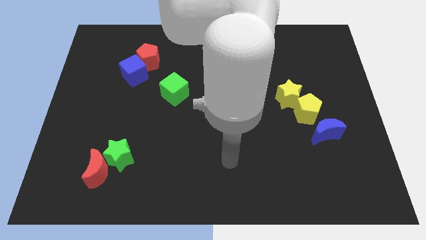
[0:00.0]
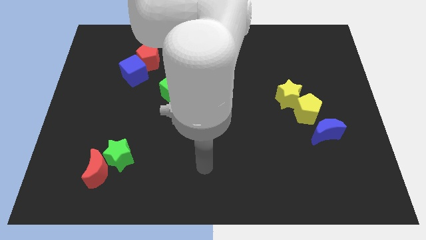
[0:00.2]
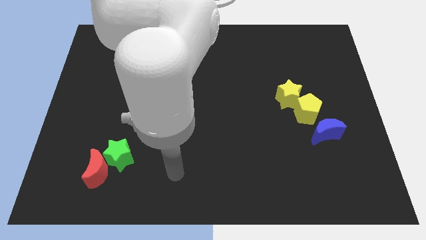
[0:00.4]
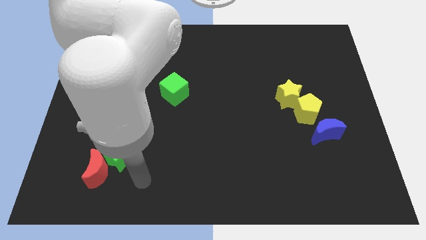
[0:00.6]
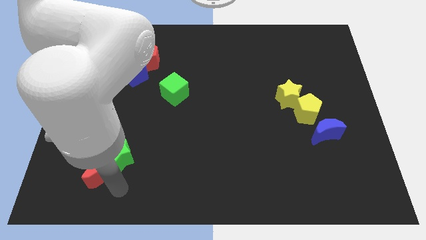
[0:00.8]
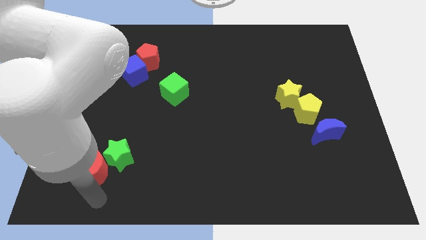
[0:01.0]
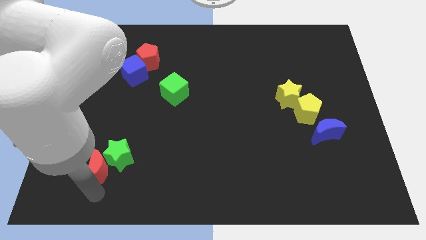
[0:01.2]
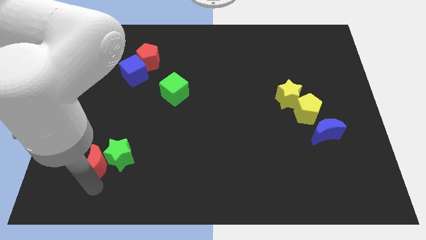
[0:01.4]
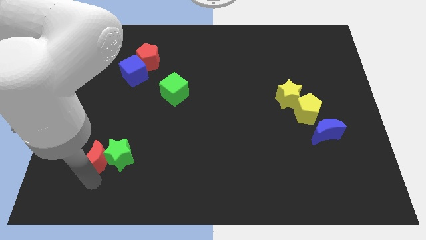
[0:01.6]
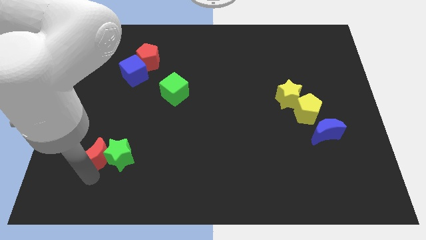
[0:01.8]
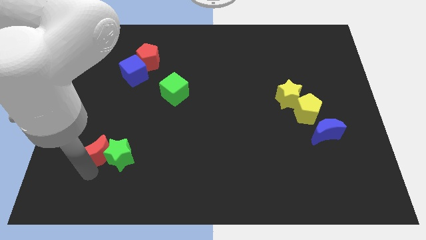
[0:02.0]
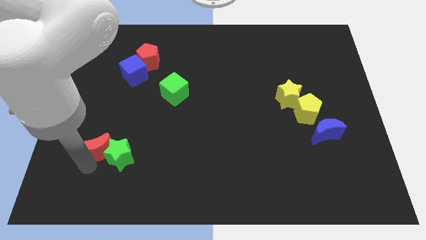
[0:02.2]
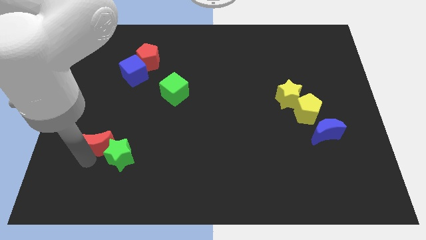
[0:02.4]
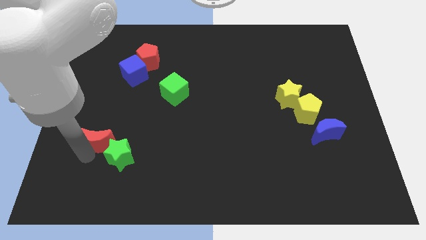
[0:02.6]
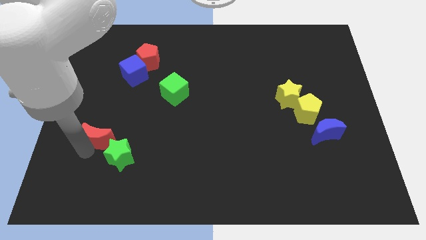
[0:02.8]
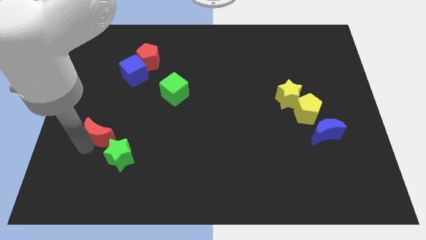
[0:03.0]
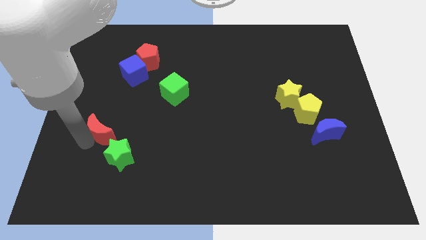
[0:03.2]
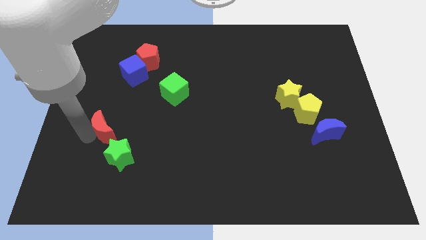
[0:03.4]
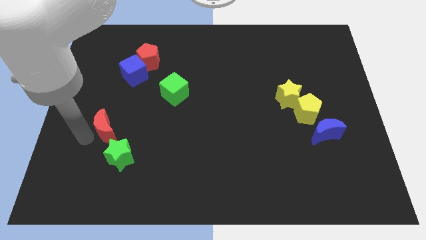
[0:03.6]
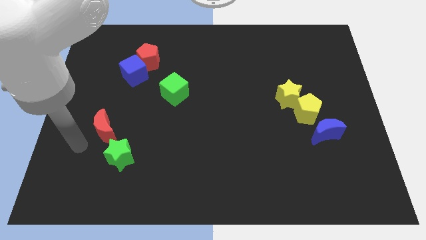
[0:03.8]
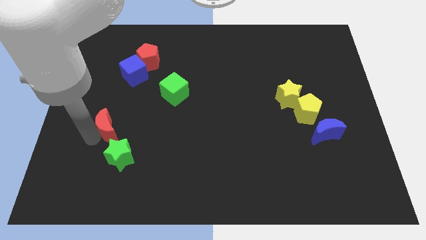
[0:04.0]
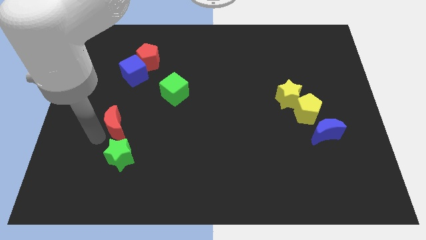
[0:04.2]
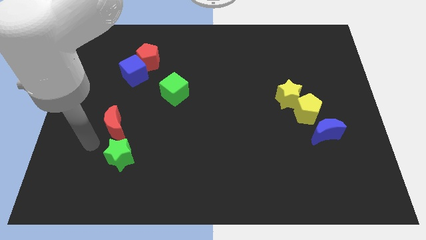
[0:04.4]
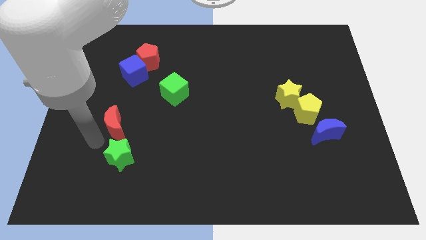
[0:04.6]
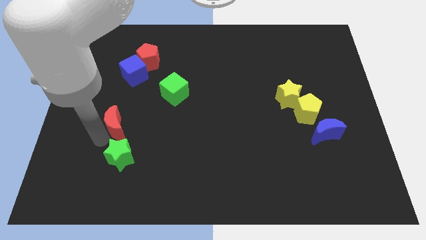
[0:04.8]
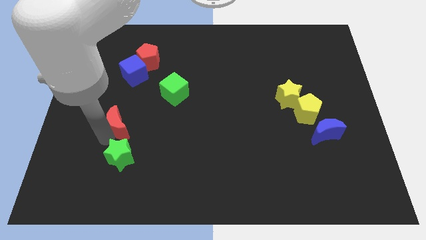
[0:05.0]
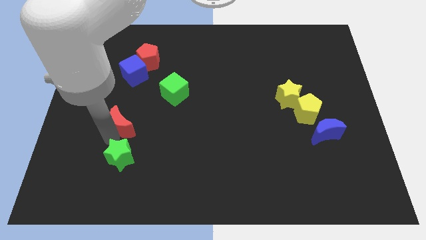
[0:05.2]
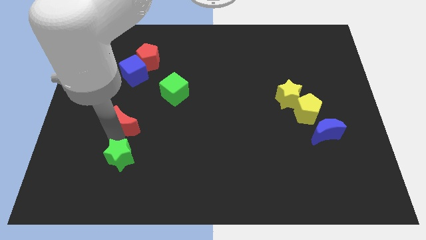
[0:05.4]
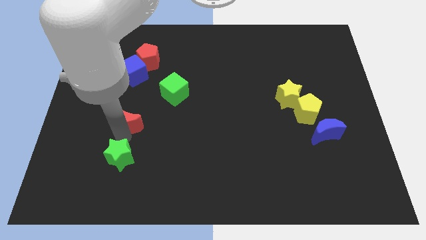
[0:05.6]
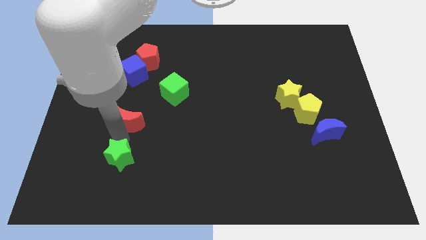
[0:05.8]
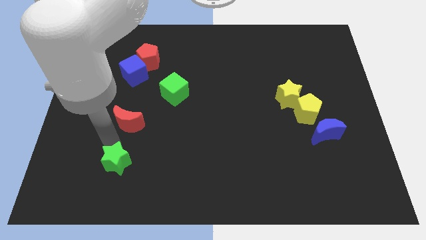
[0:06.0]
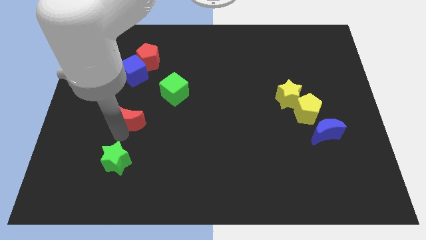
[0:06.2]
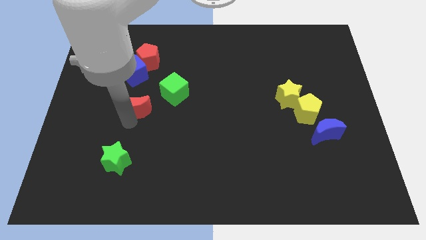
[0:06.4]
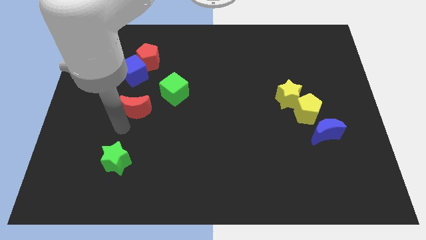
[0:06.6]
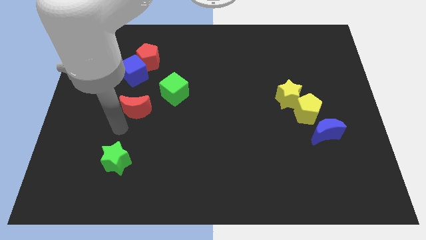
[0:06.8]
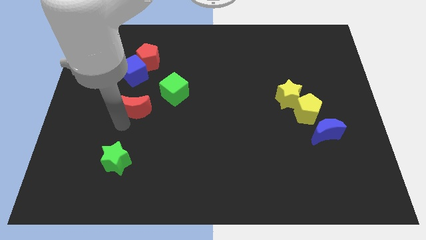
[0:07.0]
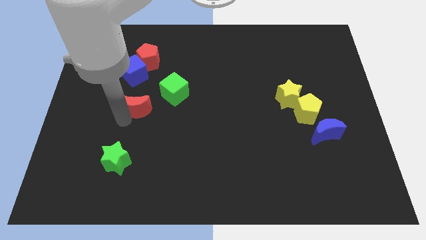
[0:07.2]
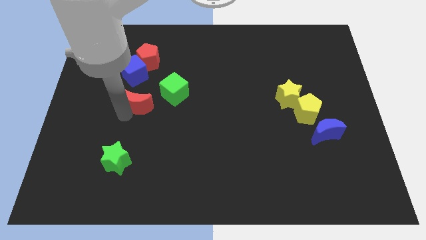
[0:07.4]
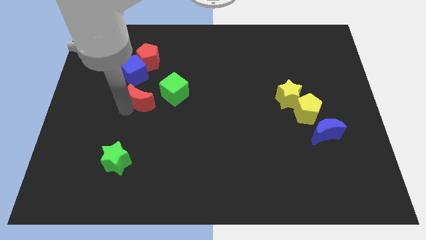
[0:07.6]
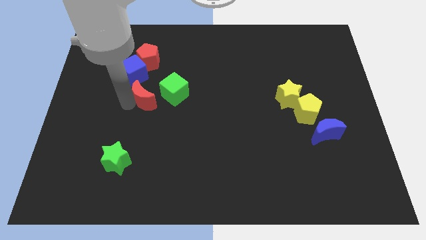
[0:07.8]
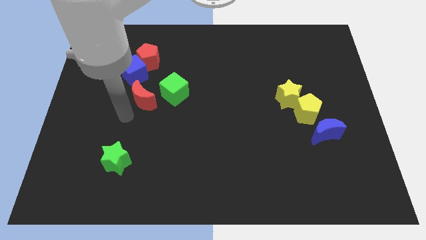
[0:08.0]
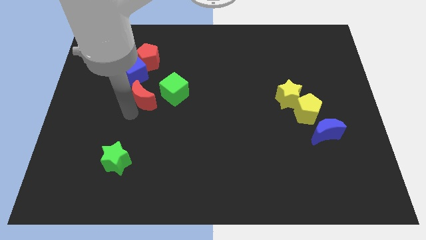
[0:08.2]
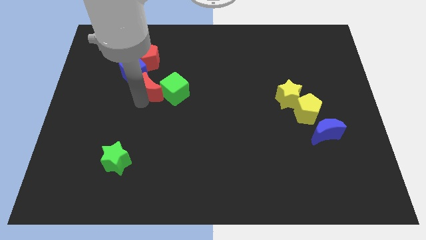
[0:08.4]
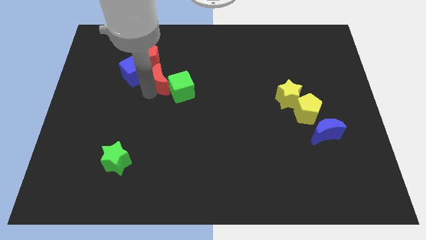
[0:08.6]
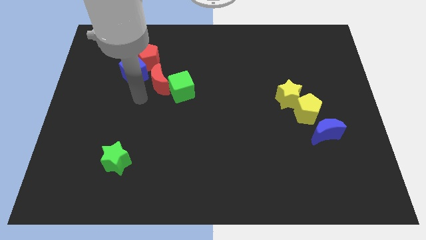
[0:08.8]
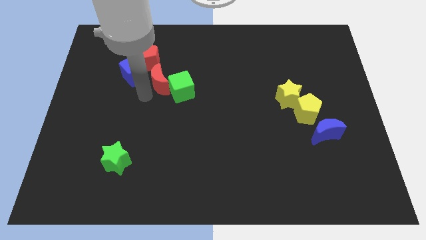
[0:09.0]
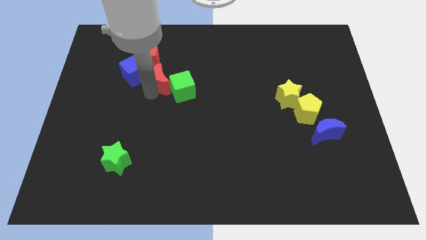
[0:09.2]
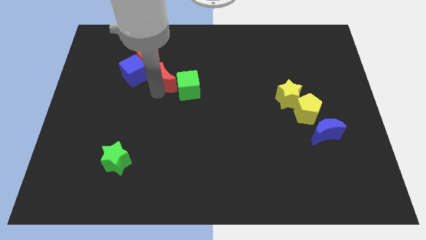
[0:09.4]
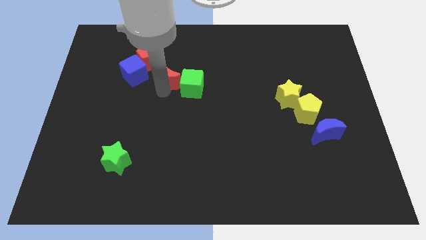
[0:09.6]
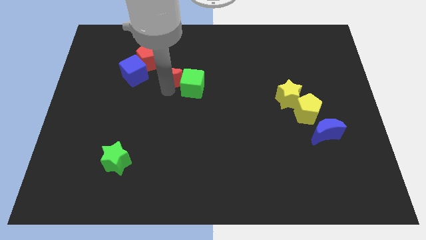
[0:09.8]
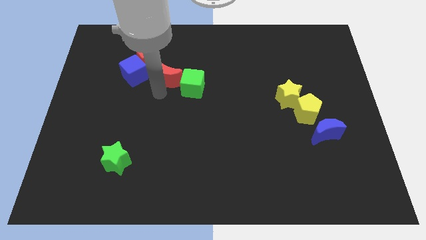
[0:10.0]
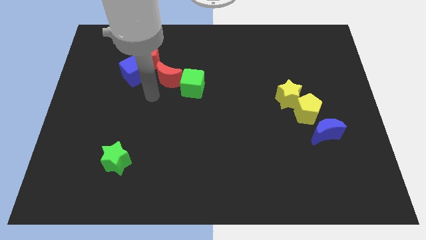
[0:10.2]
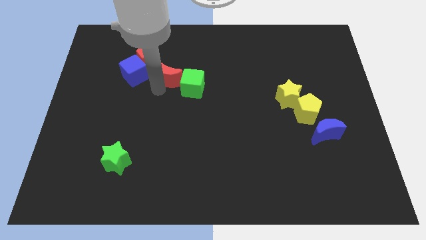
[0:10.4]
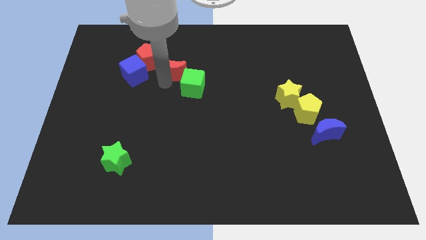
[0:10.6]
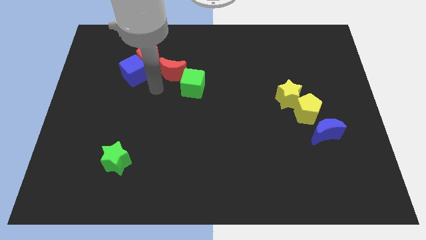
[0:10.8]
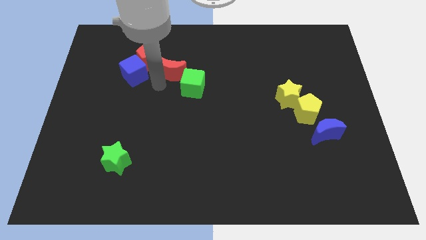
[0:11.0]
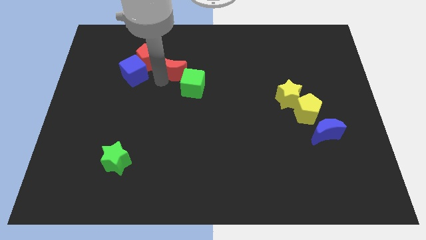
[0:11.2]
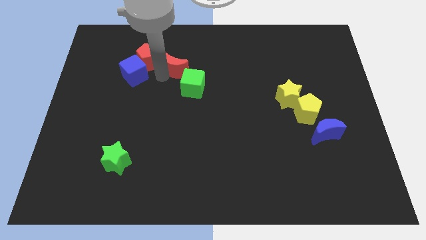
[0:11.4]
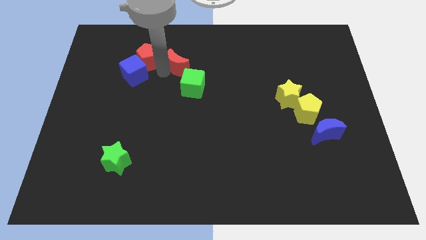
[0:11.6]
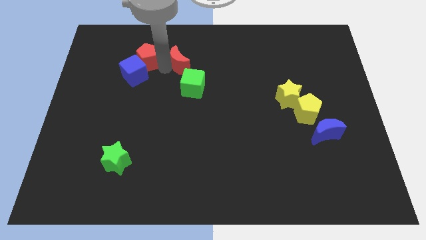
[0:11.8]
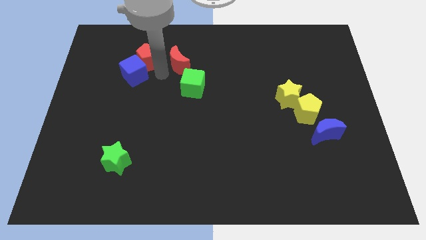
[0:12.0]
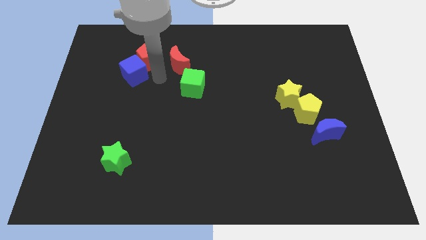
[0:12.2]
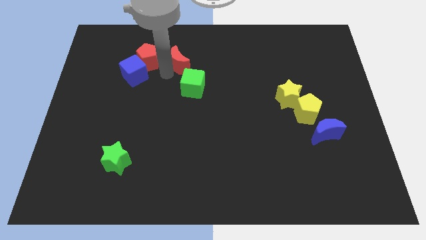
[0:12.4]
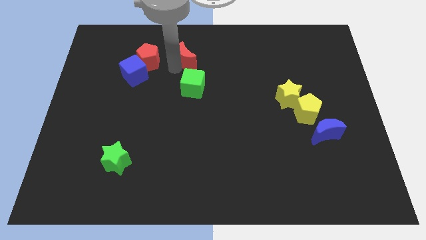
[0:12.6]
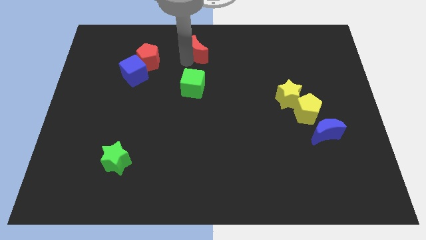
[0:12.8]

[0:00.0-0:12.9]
push the red moon to the top
